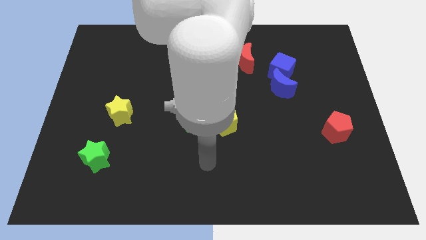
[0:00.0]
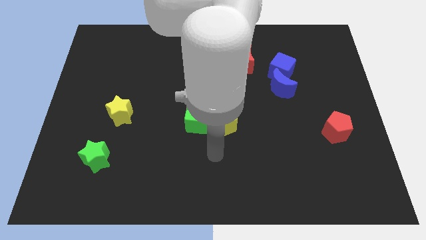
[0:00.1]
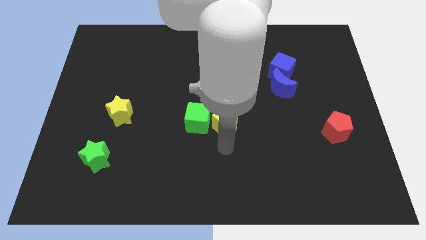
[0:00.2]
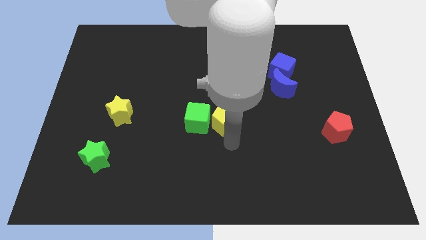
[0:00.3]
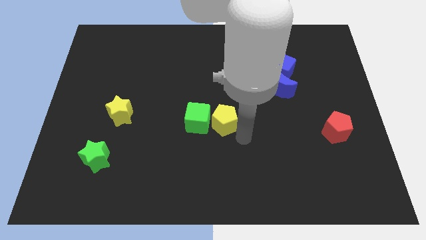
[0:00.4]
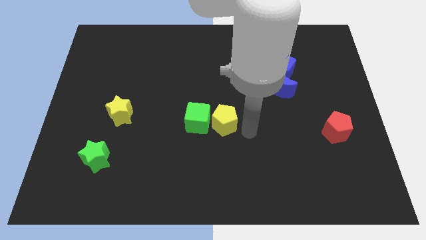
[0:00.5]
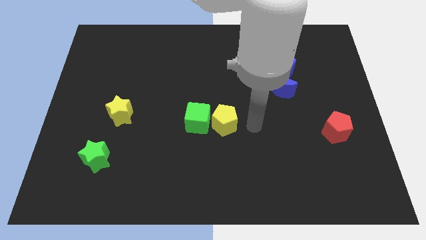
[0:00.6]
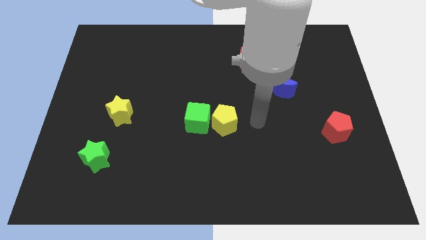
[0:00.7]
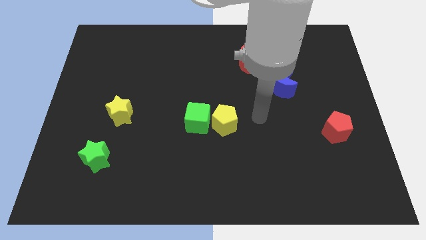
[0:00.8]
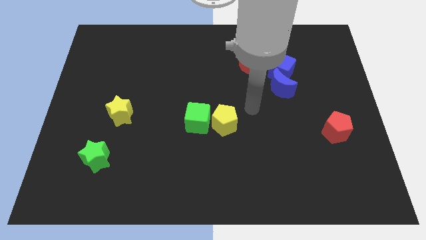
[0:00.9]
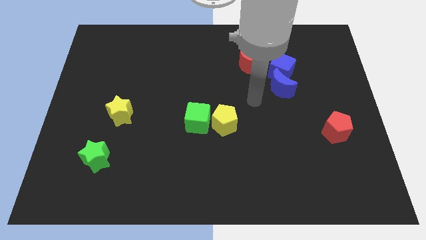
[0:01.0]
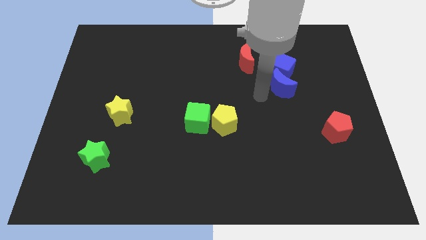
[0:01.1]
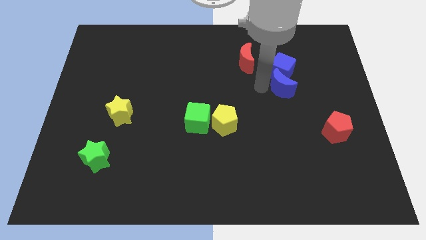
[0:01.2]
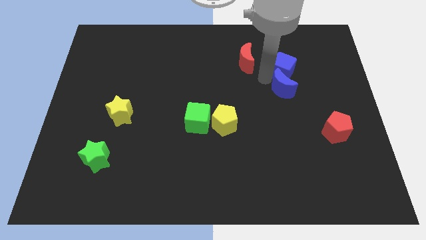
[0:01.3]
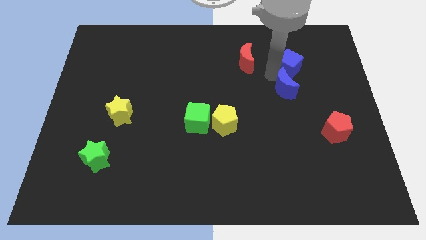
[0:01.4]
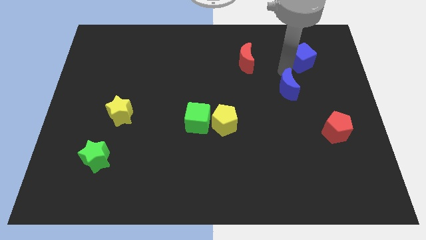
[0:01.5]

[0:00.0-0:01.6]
pull the blue moon apart from the blue cube

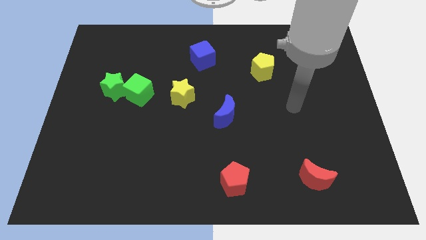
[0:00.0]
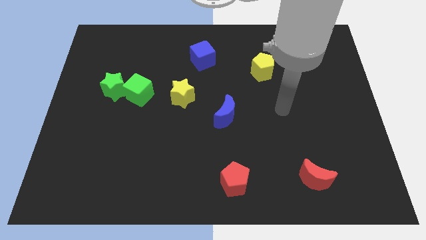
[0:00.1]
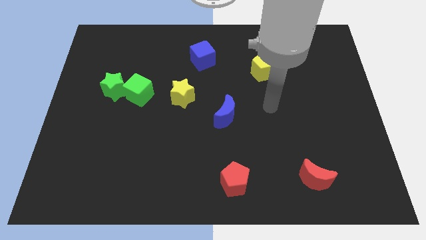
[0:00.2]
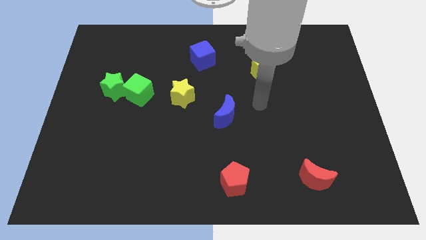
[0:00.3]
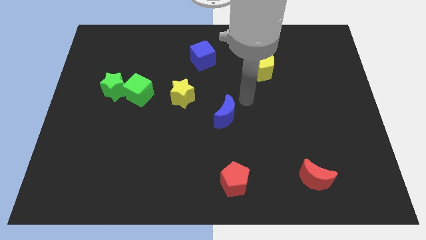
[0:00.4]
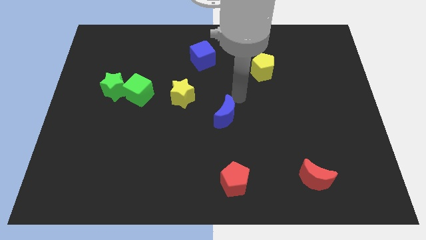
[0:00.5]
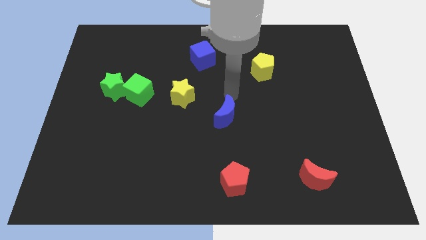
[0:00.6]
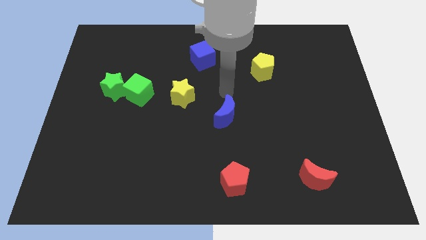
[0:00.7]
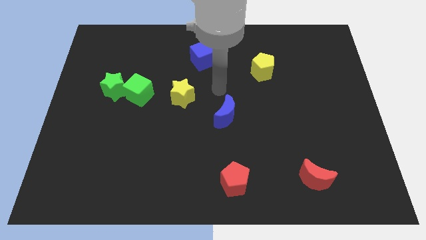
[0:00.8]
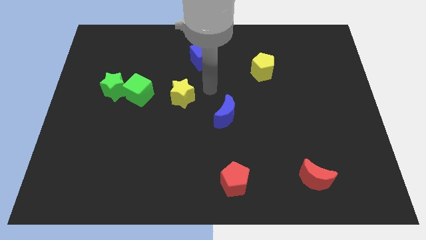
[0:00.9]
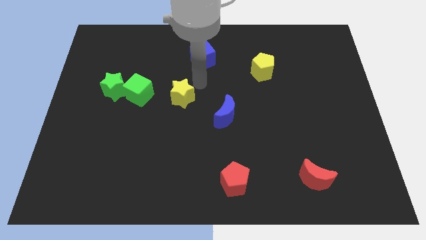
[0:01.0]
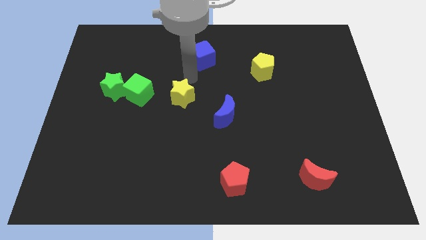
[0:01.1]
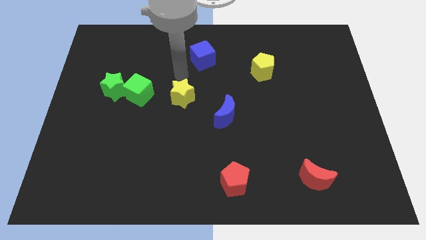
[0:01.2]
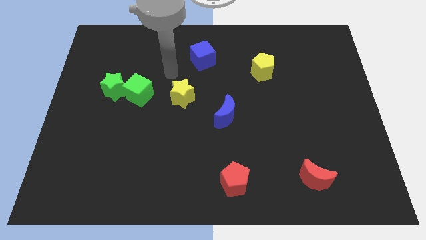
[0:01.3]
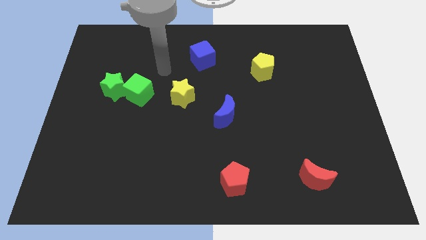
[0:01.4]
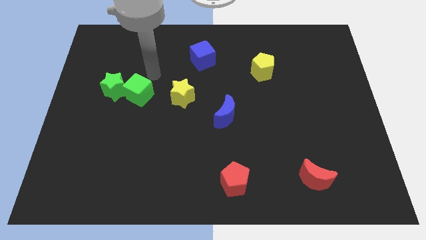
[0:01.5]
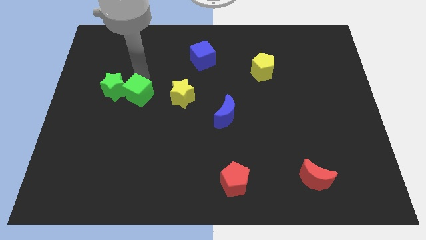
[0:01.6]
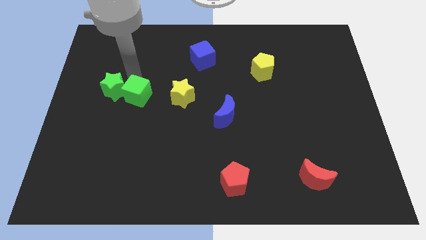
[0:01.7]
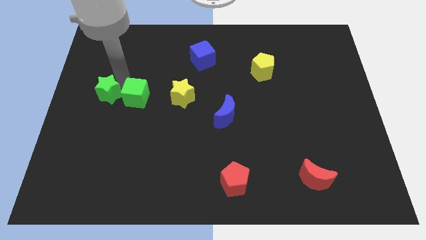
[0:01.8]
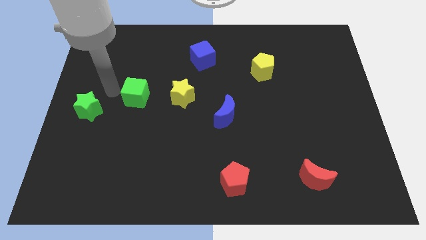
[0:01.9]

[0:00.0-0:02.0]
pull the green cube apart from the green star

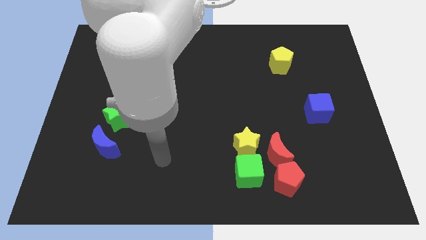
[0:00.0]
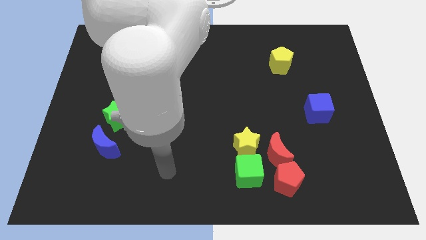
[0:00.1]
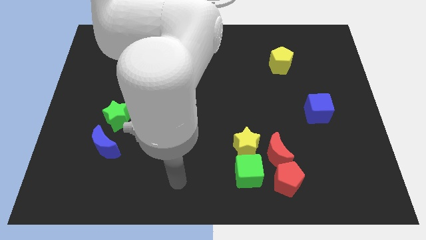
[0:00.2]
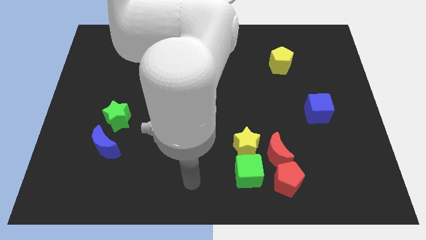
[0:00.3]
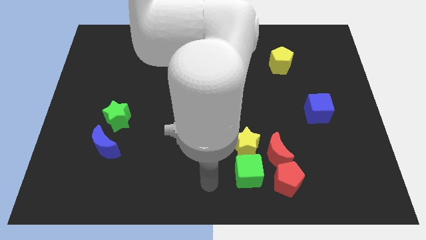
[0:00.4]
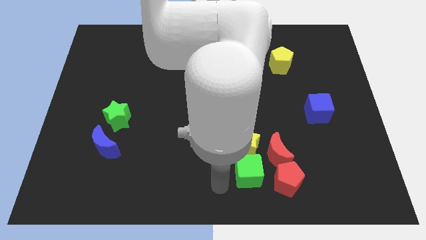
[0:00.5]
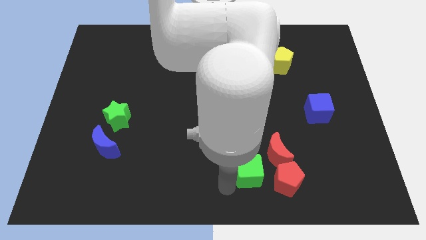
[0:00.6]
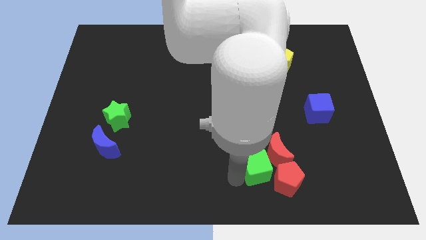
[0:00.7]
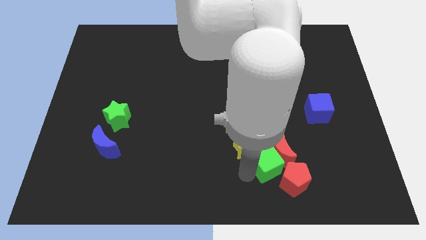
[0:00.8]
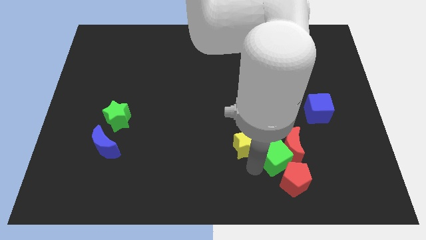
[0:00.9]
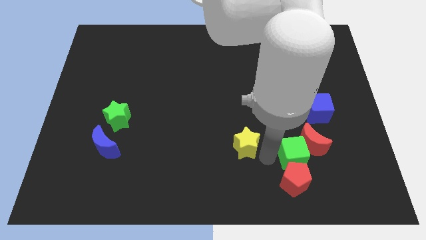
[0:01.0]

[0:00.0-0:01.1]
pull the yellow star apart from the green cube and red moon

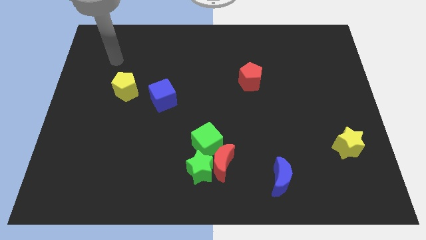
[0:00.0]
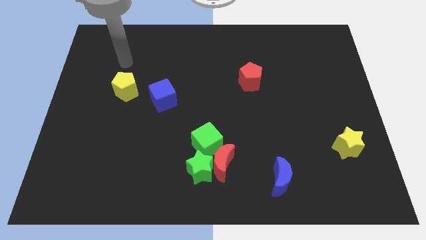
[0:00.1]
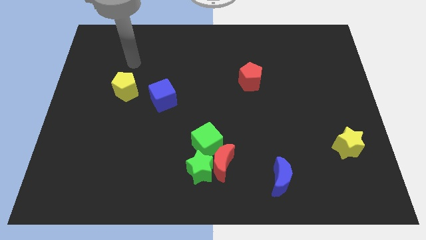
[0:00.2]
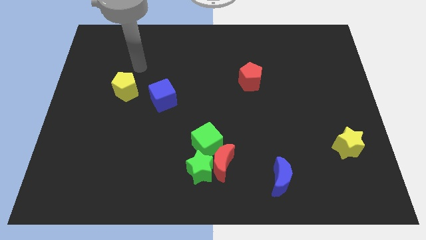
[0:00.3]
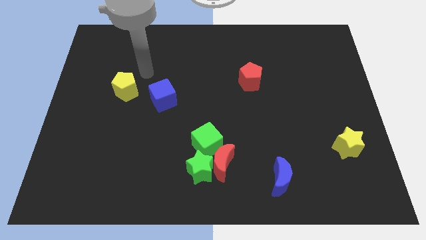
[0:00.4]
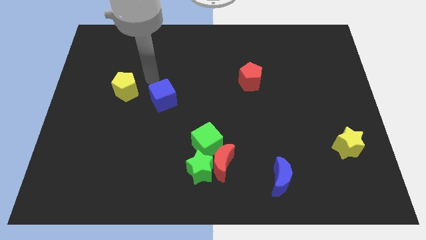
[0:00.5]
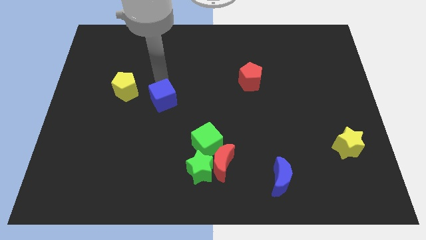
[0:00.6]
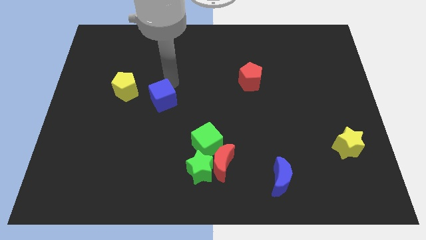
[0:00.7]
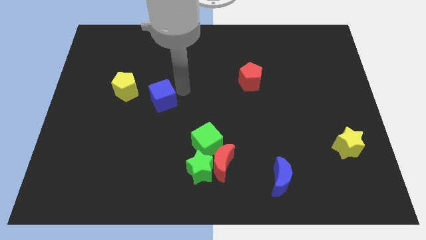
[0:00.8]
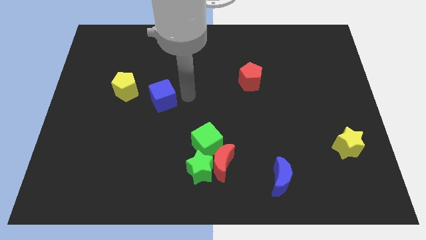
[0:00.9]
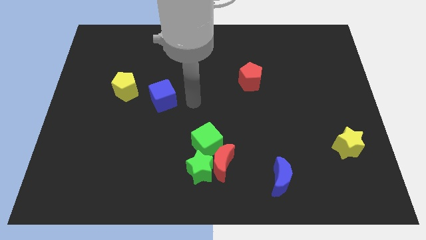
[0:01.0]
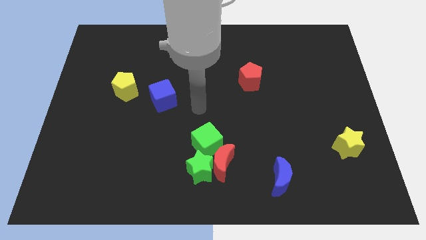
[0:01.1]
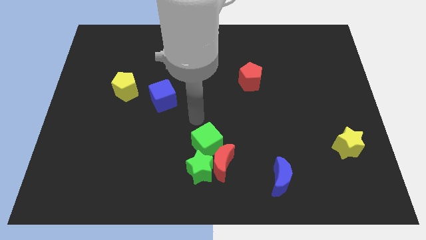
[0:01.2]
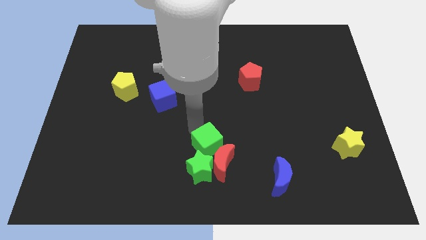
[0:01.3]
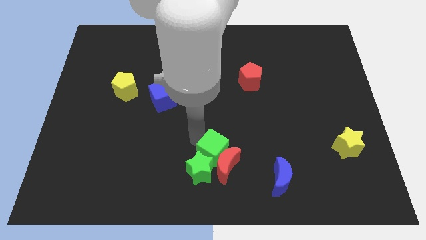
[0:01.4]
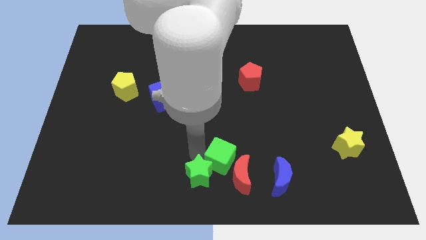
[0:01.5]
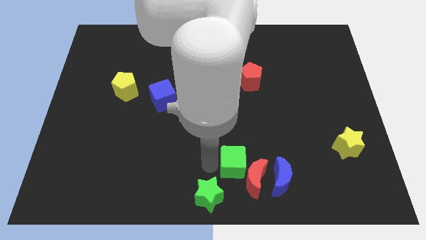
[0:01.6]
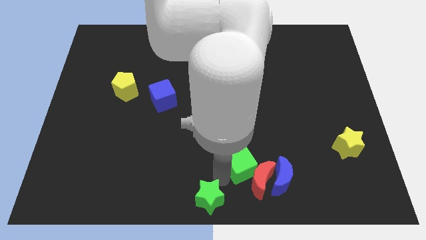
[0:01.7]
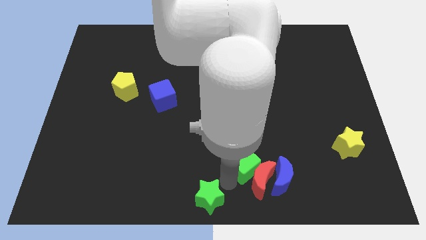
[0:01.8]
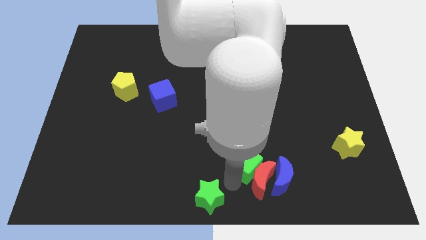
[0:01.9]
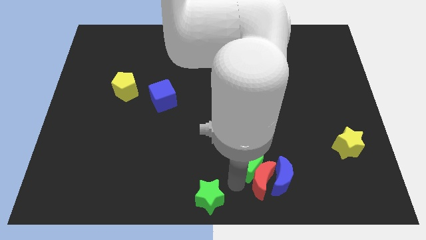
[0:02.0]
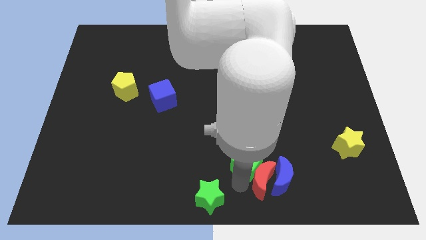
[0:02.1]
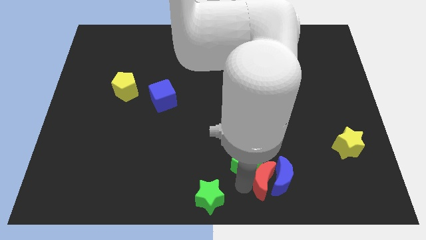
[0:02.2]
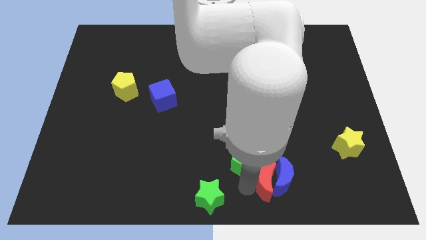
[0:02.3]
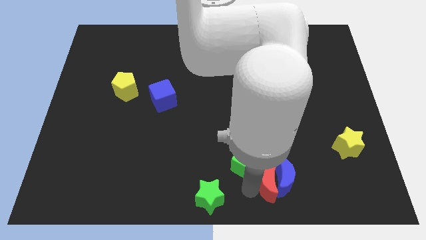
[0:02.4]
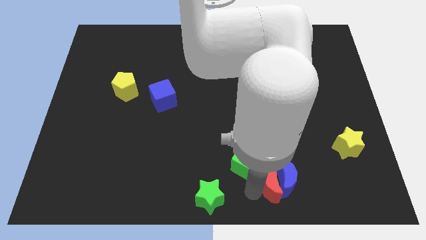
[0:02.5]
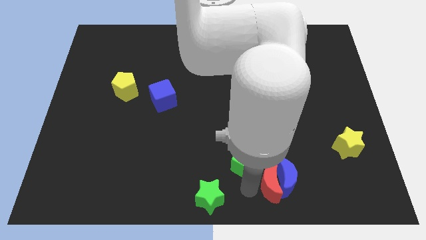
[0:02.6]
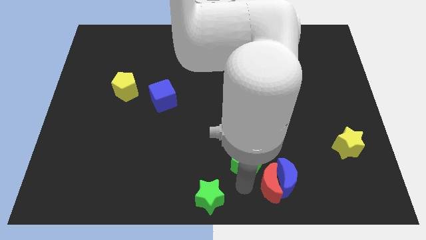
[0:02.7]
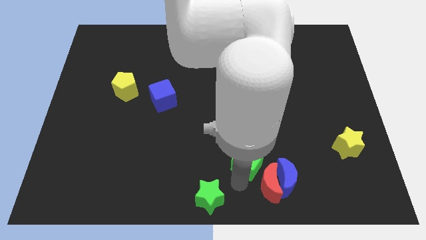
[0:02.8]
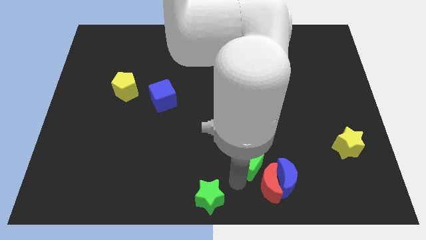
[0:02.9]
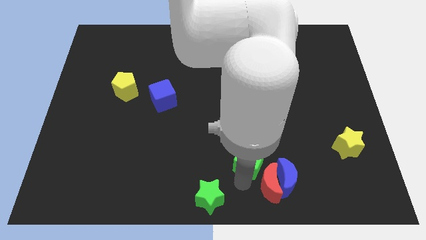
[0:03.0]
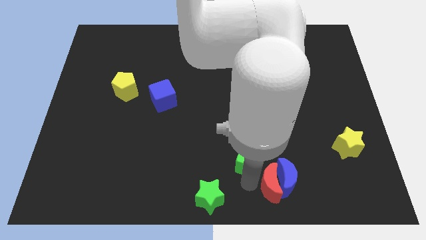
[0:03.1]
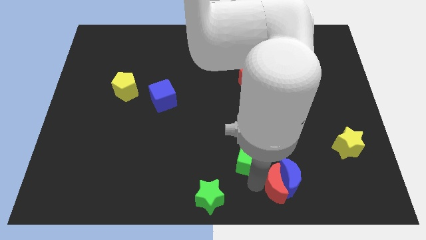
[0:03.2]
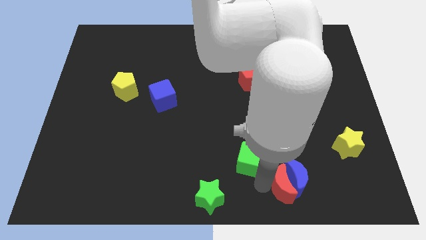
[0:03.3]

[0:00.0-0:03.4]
separate the red moon from the green star and green cube

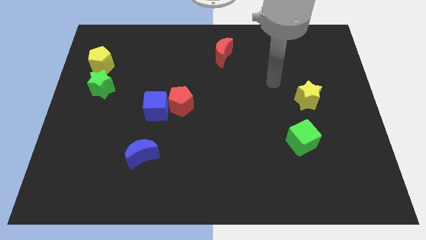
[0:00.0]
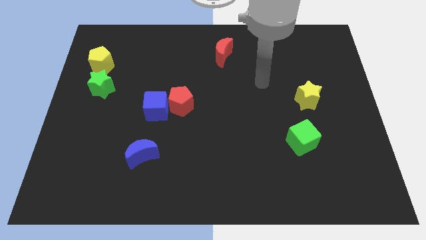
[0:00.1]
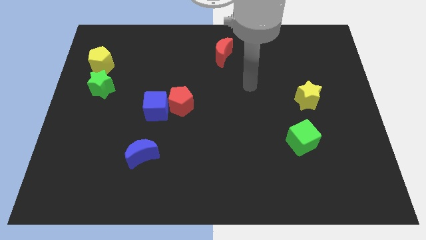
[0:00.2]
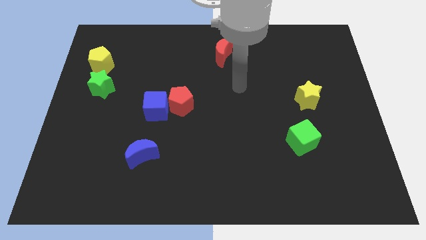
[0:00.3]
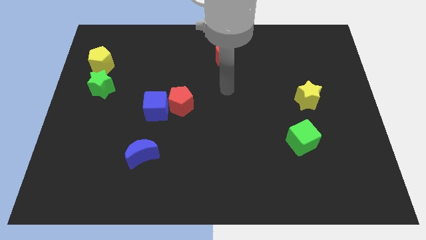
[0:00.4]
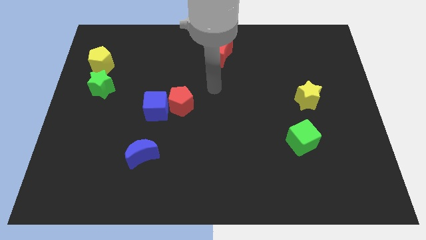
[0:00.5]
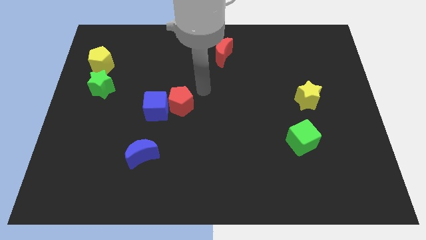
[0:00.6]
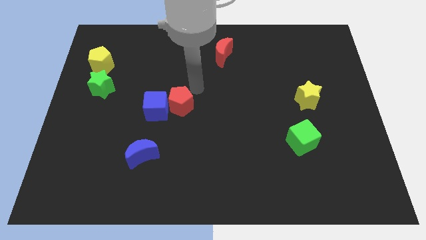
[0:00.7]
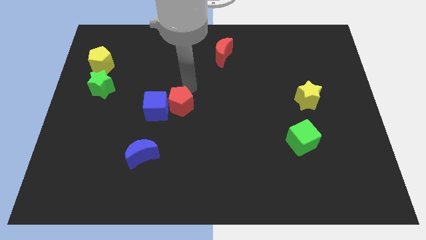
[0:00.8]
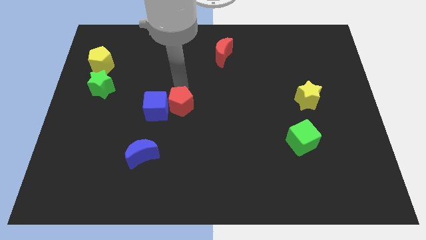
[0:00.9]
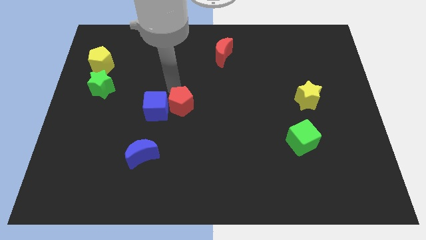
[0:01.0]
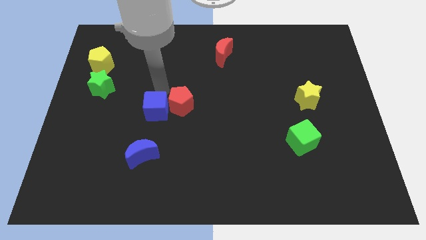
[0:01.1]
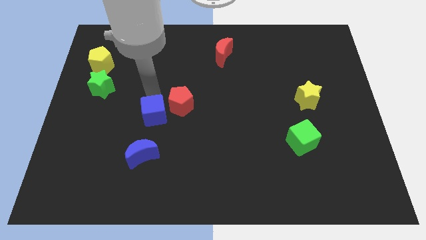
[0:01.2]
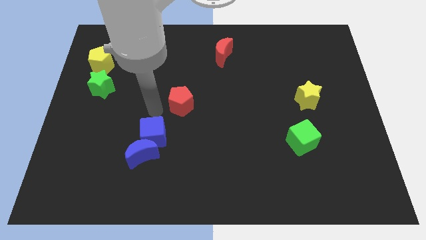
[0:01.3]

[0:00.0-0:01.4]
pull the red pentagon apart from the blue cube

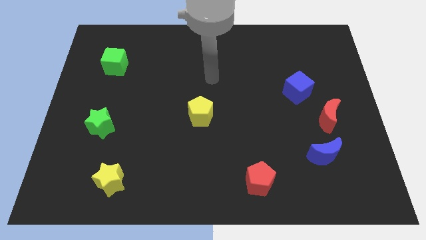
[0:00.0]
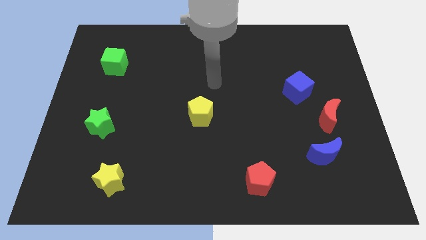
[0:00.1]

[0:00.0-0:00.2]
move the blue cube away from the red moon
